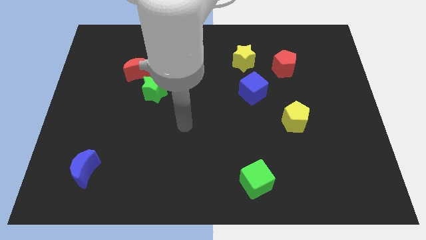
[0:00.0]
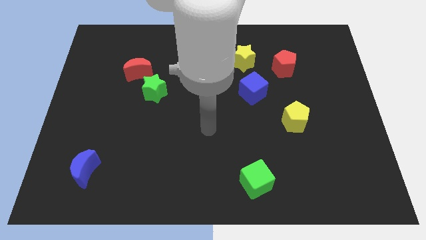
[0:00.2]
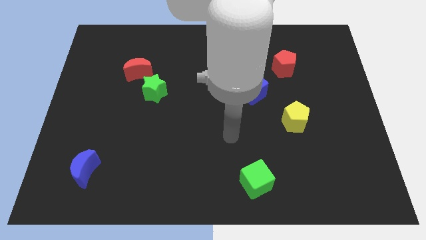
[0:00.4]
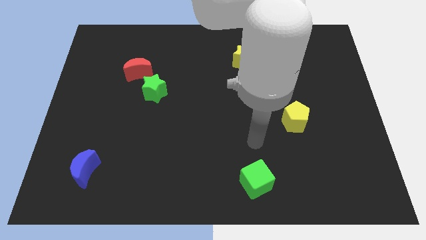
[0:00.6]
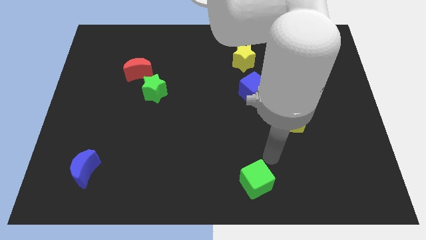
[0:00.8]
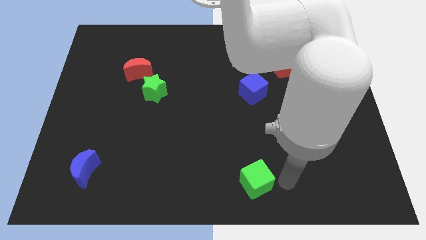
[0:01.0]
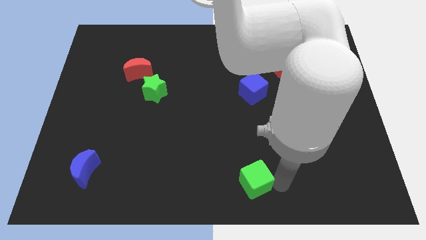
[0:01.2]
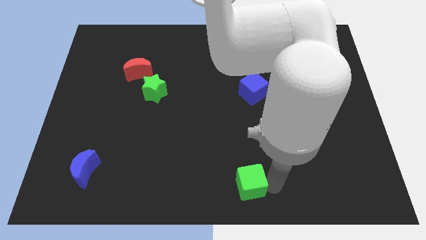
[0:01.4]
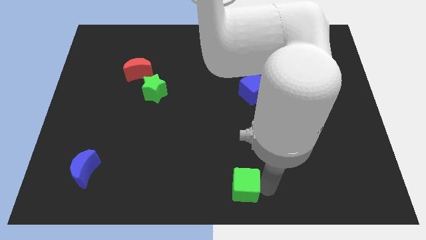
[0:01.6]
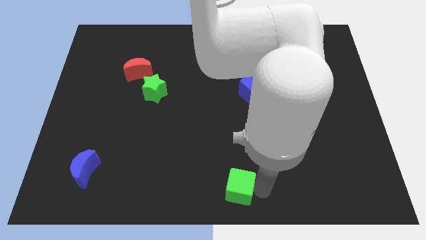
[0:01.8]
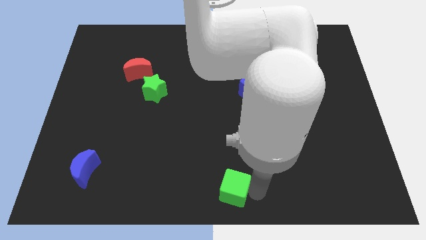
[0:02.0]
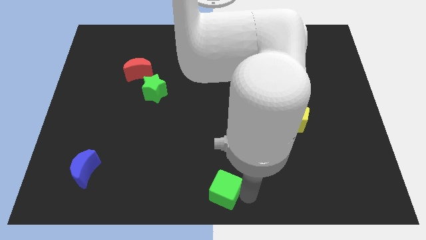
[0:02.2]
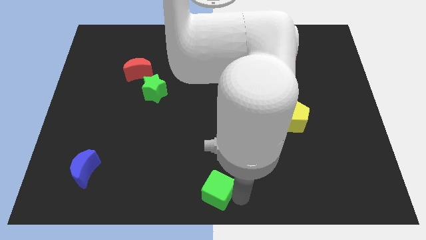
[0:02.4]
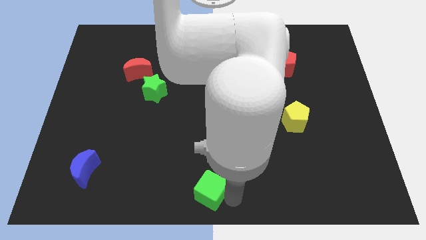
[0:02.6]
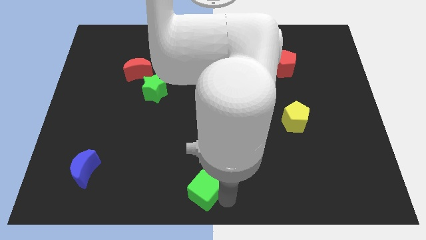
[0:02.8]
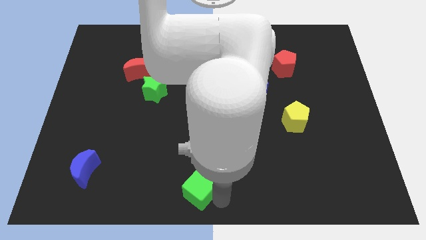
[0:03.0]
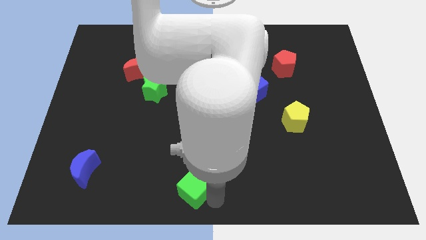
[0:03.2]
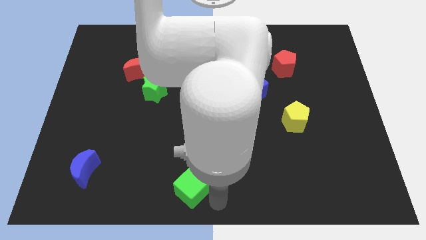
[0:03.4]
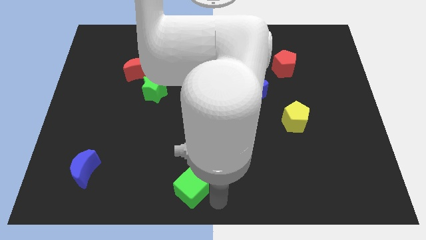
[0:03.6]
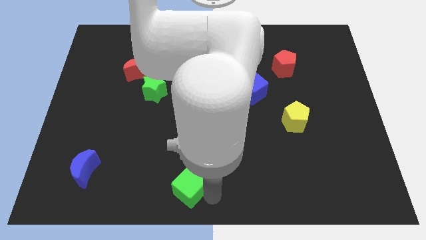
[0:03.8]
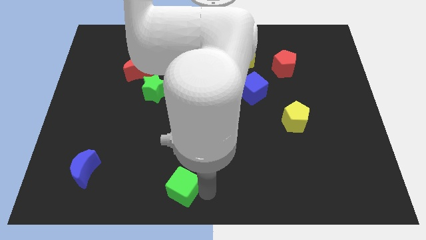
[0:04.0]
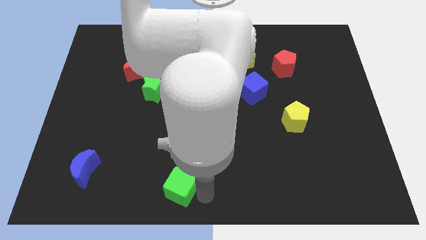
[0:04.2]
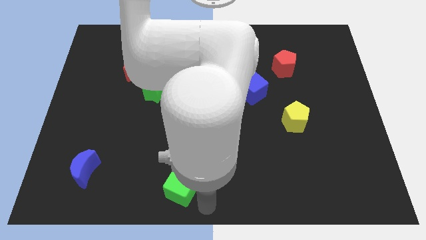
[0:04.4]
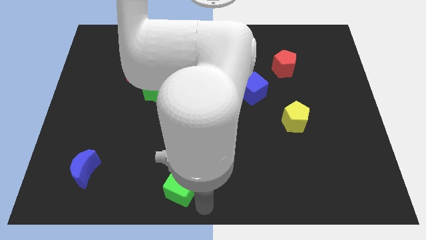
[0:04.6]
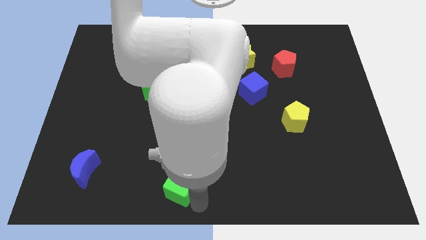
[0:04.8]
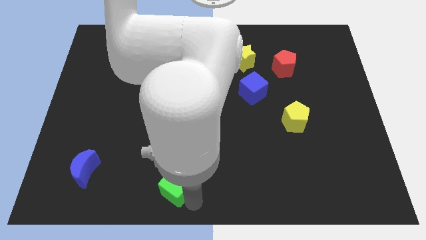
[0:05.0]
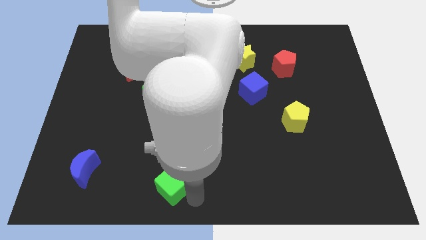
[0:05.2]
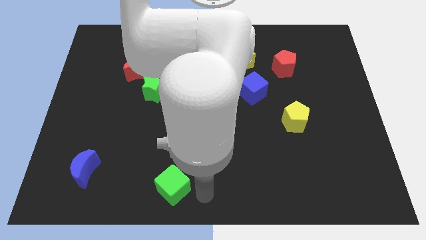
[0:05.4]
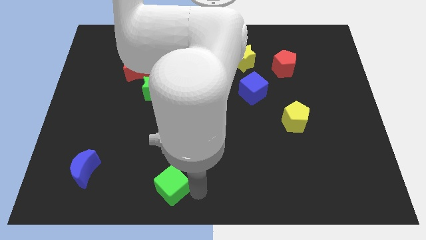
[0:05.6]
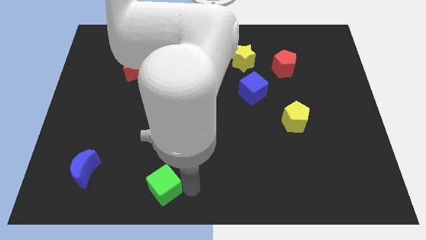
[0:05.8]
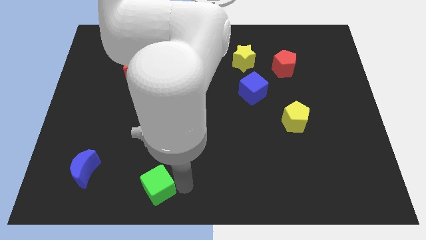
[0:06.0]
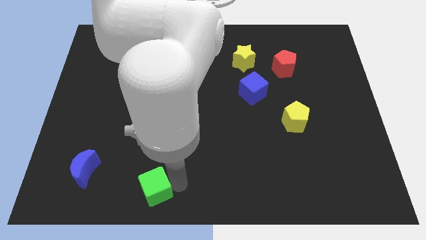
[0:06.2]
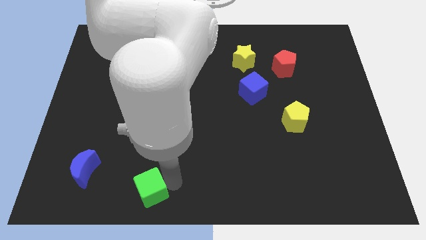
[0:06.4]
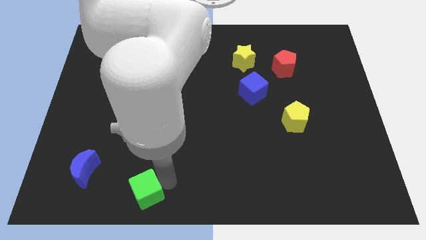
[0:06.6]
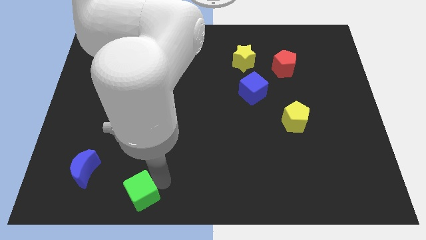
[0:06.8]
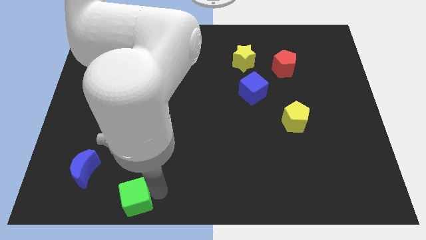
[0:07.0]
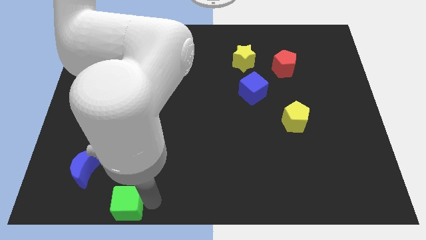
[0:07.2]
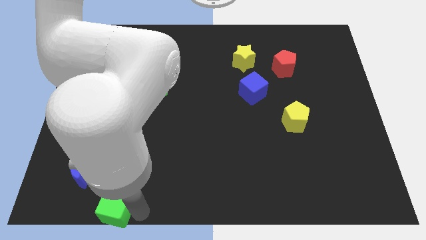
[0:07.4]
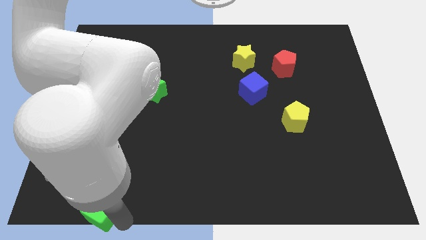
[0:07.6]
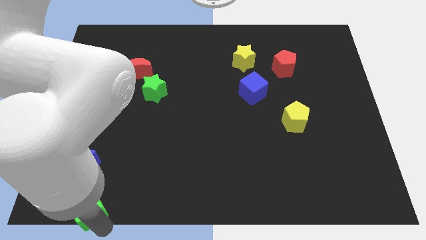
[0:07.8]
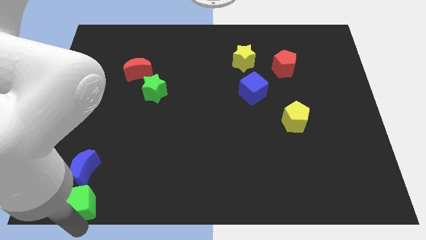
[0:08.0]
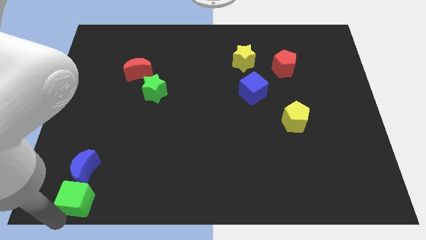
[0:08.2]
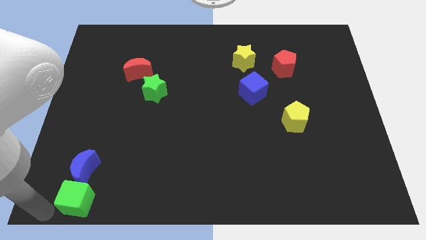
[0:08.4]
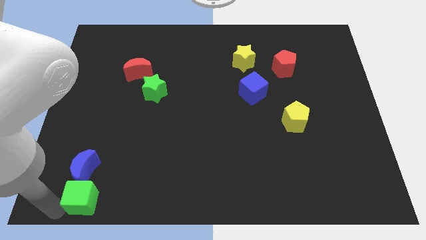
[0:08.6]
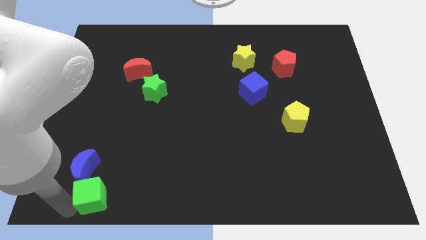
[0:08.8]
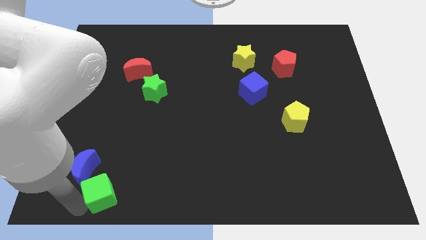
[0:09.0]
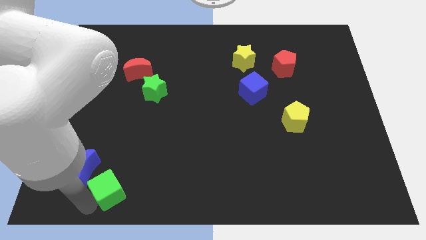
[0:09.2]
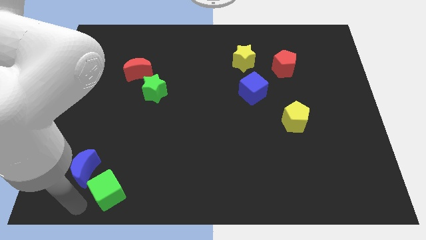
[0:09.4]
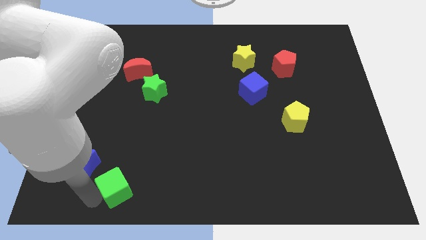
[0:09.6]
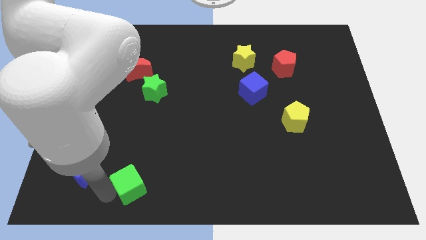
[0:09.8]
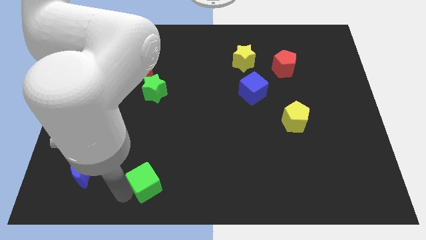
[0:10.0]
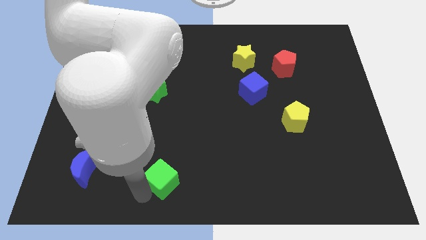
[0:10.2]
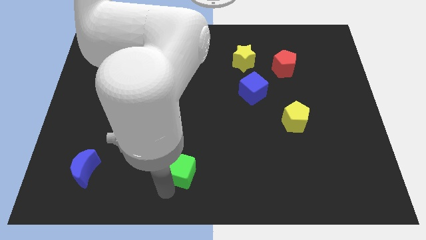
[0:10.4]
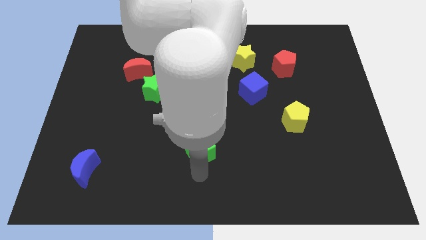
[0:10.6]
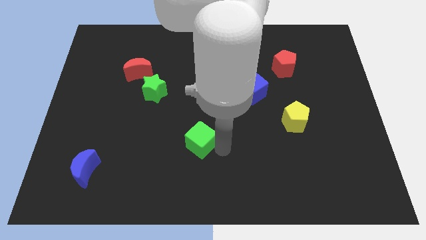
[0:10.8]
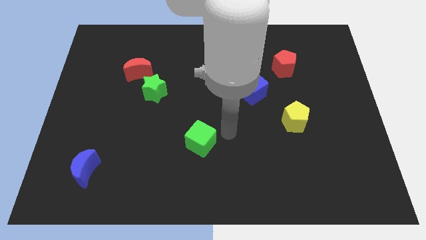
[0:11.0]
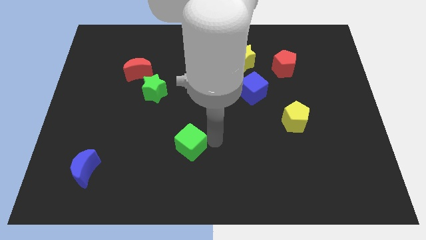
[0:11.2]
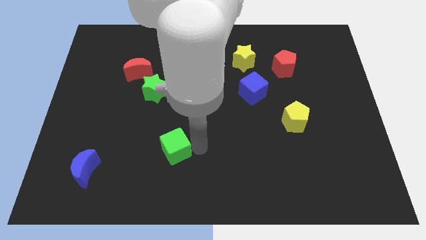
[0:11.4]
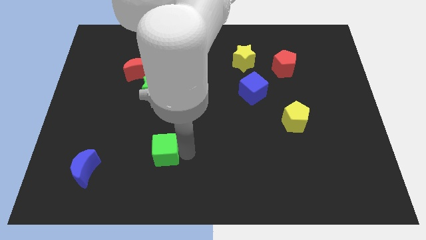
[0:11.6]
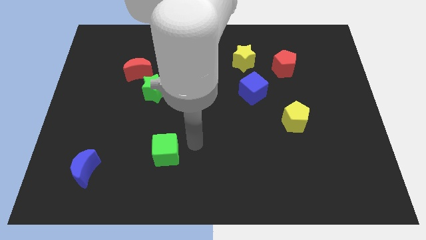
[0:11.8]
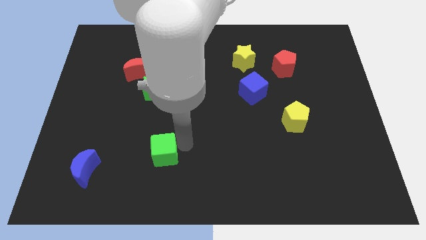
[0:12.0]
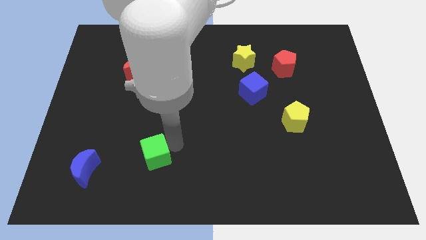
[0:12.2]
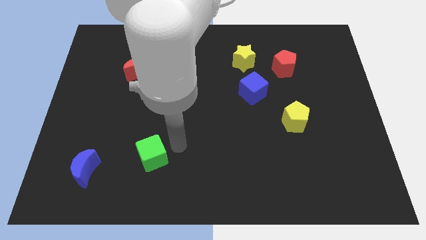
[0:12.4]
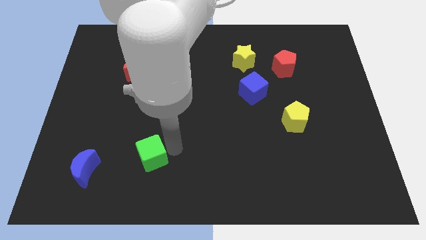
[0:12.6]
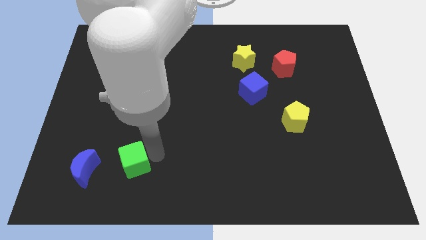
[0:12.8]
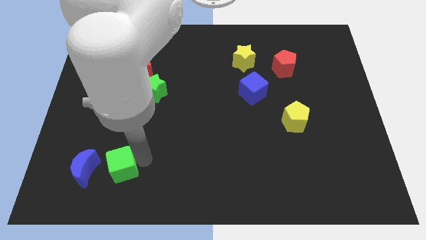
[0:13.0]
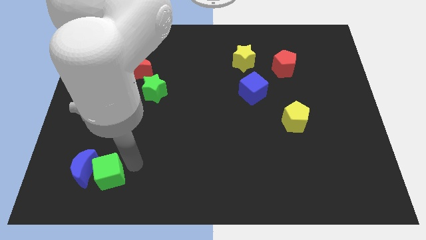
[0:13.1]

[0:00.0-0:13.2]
move the green cube to the blue moon

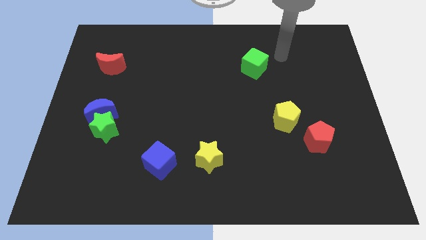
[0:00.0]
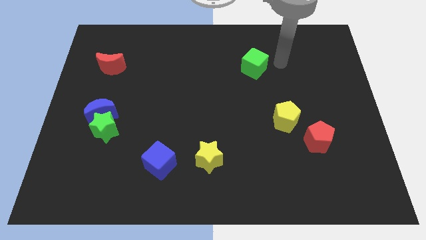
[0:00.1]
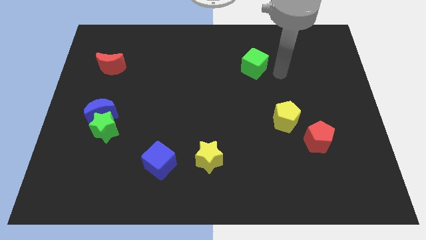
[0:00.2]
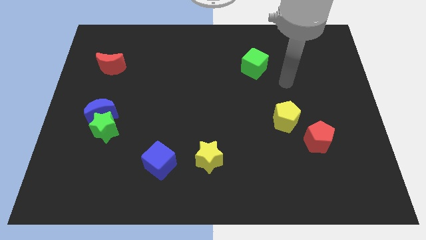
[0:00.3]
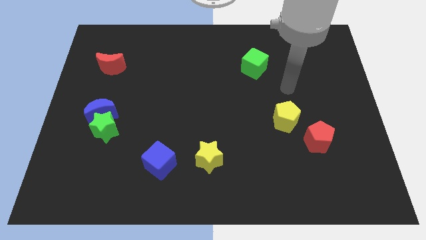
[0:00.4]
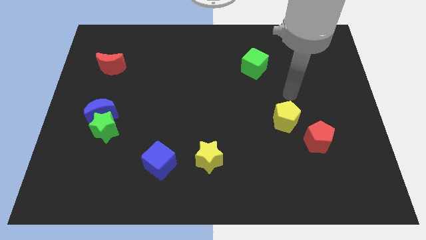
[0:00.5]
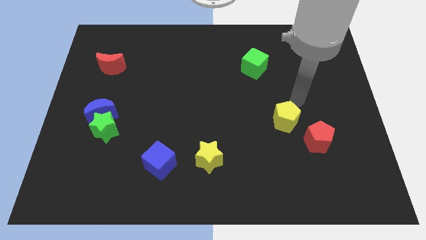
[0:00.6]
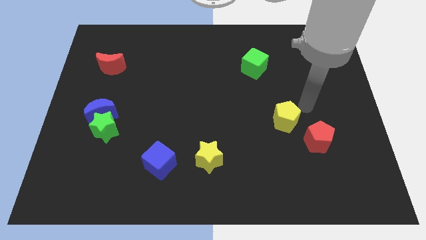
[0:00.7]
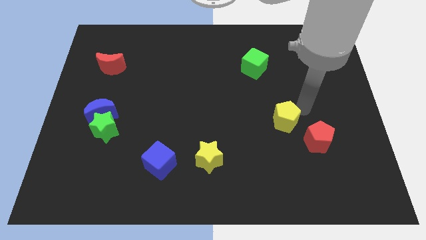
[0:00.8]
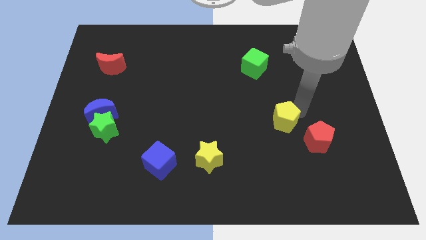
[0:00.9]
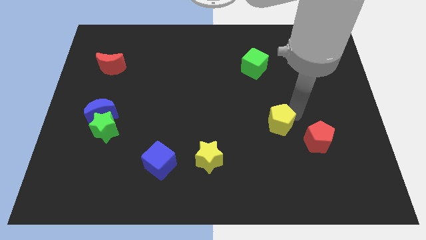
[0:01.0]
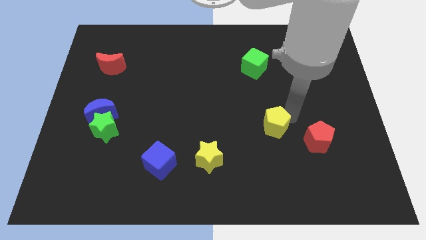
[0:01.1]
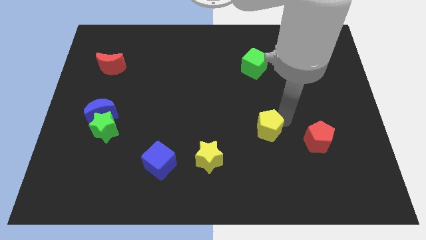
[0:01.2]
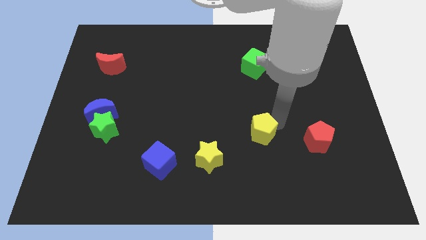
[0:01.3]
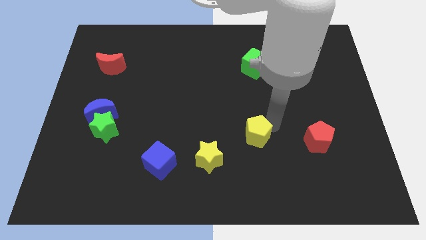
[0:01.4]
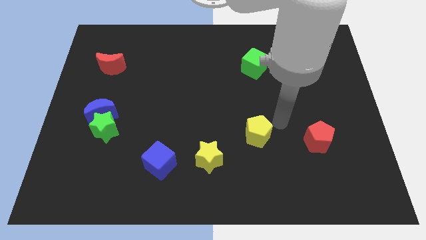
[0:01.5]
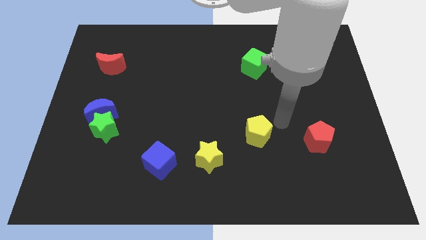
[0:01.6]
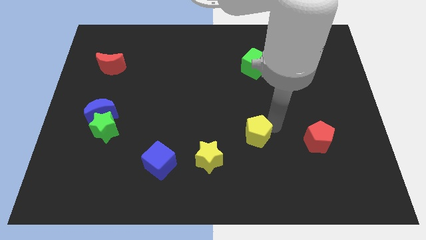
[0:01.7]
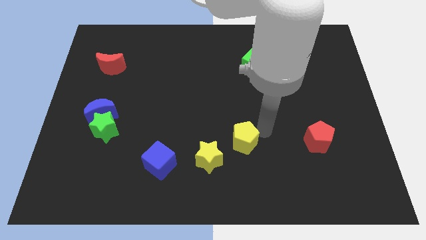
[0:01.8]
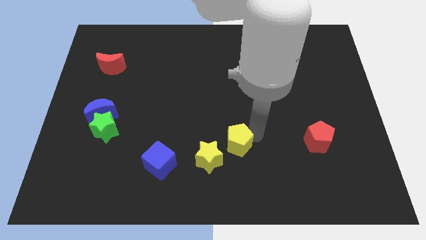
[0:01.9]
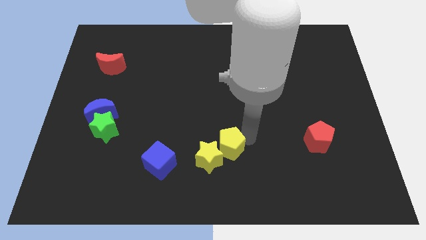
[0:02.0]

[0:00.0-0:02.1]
push the yellow pentagon towards the yellow star
